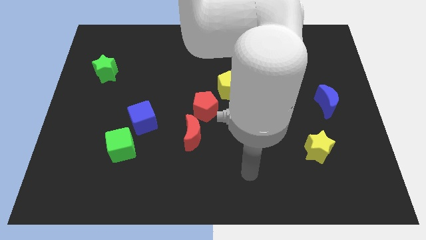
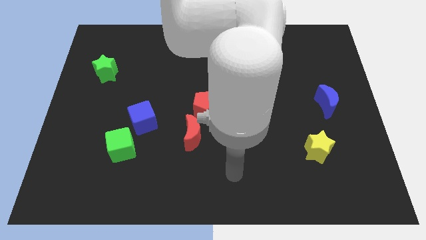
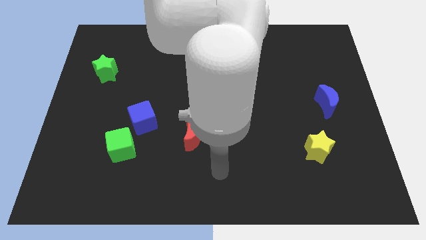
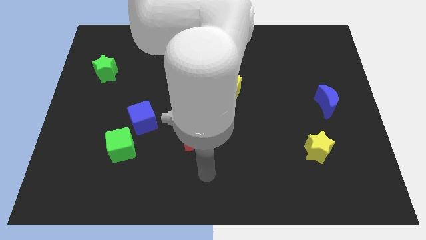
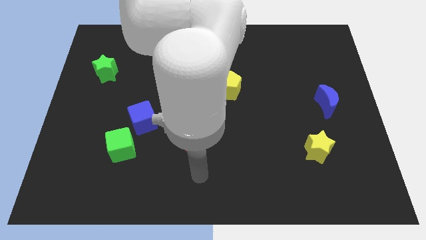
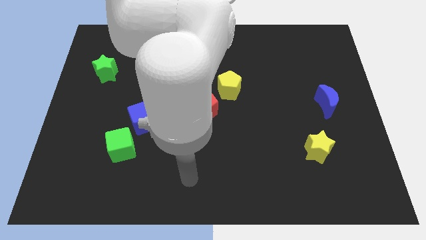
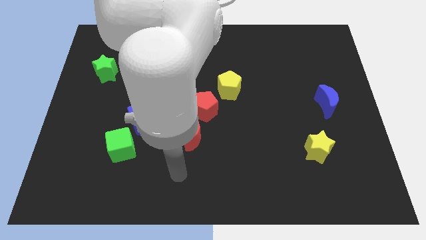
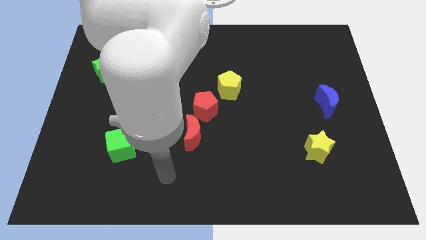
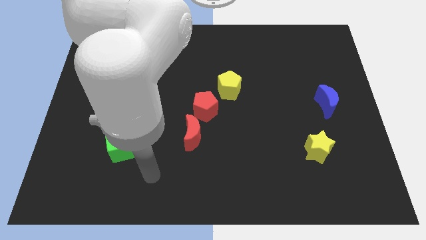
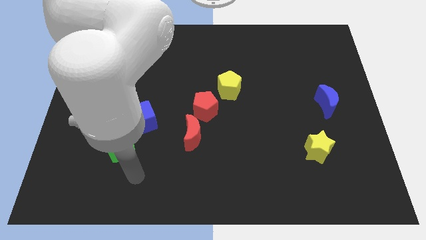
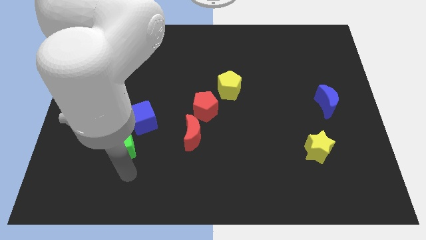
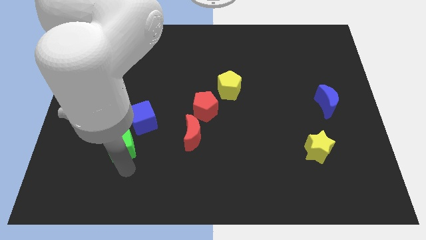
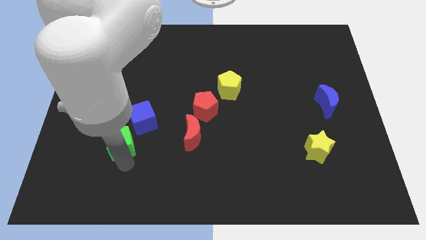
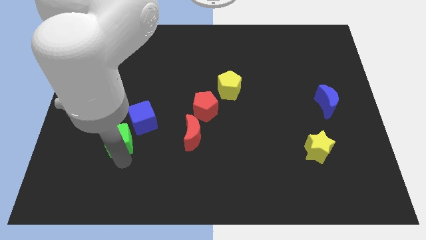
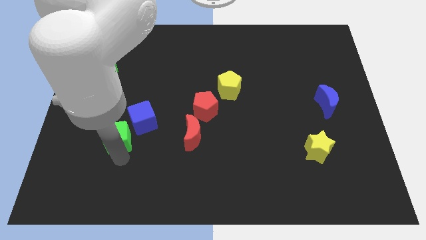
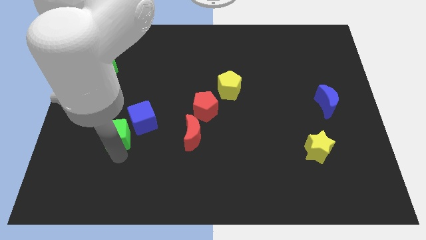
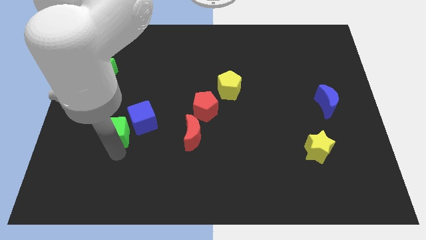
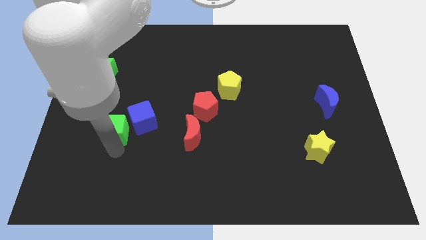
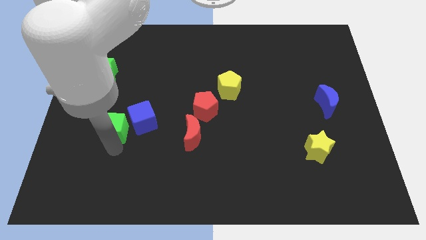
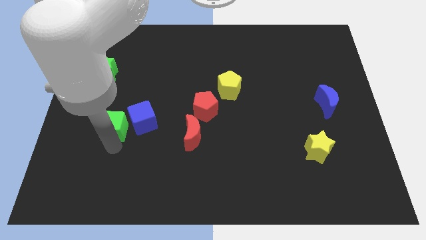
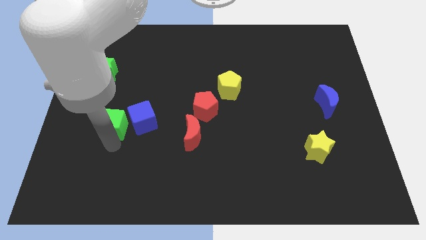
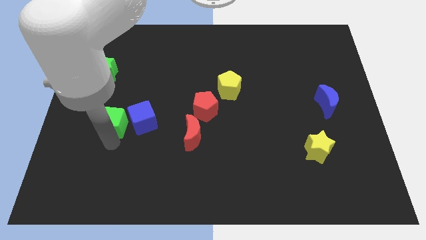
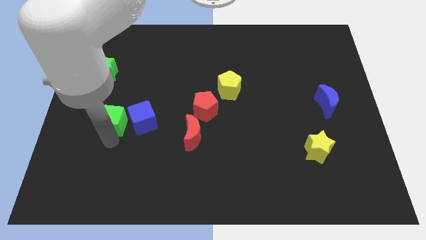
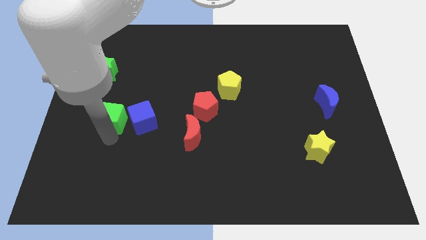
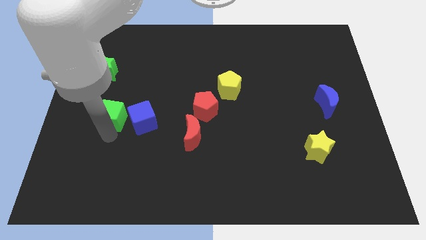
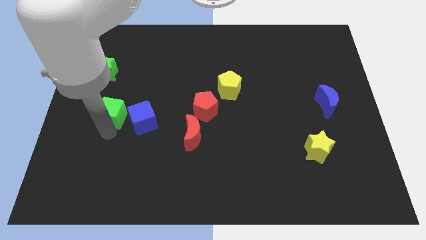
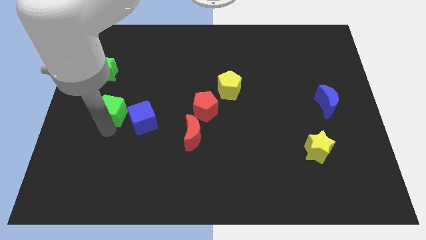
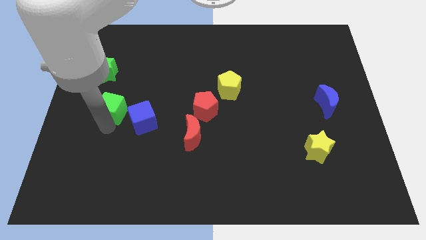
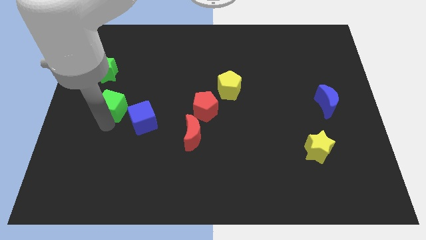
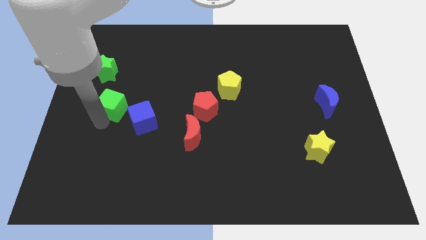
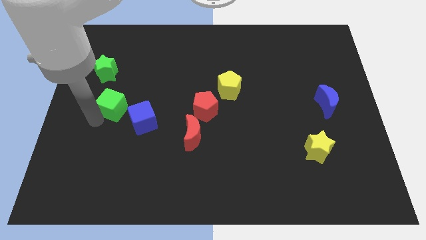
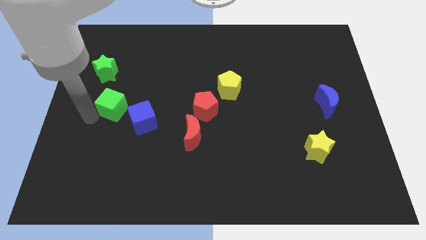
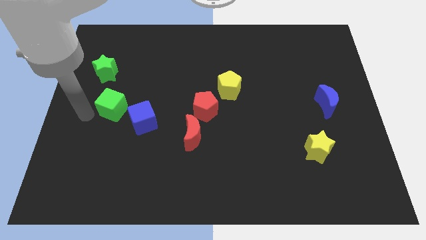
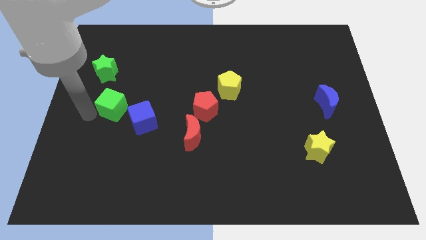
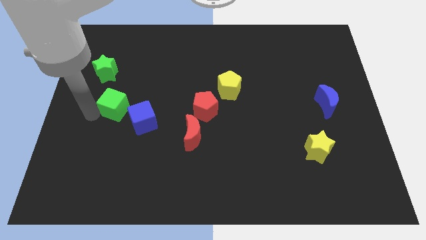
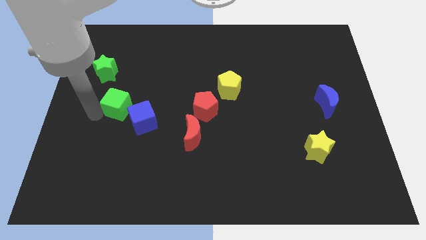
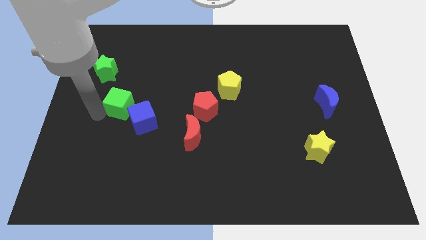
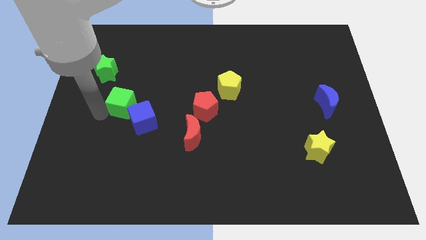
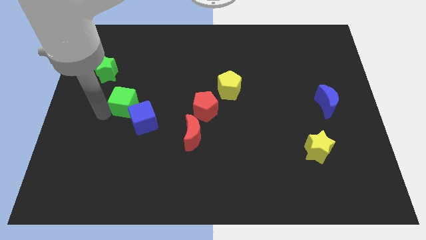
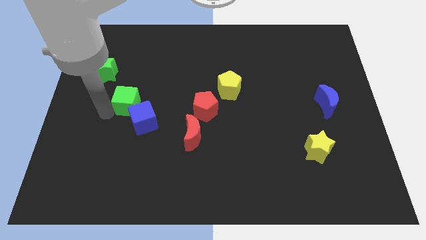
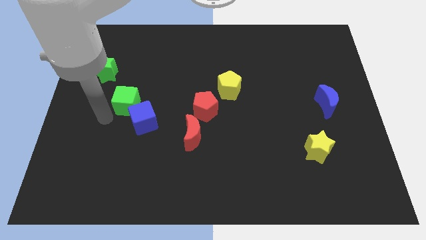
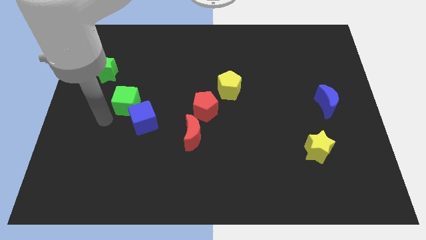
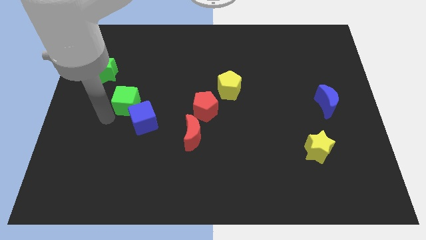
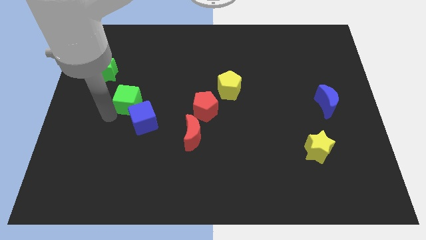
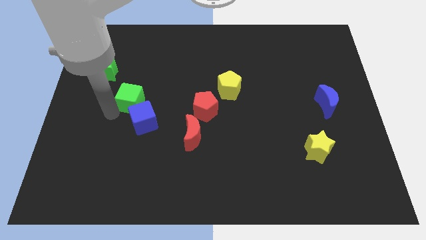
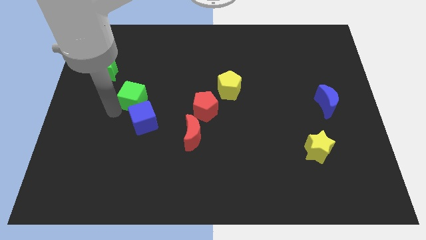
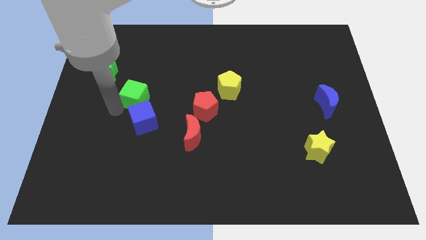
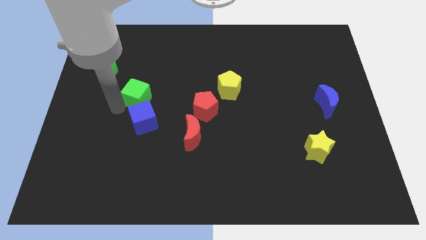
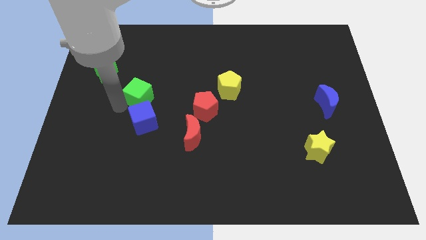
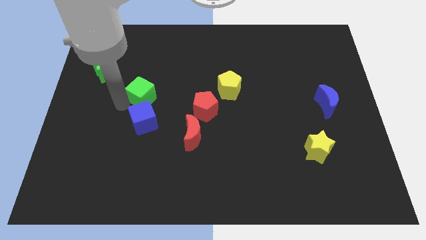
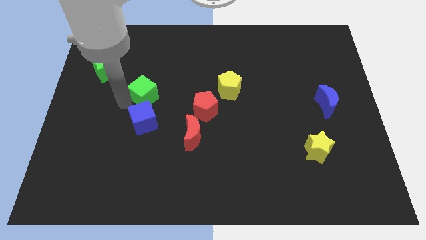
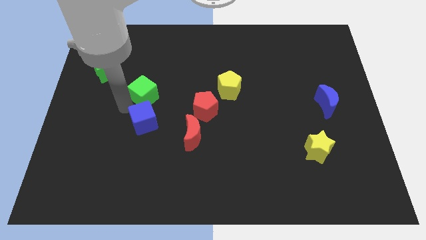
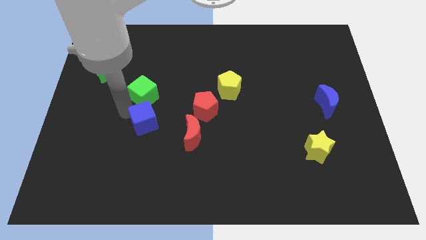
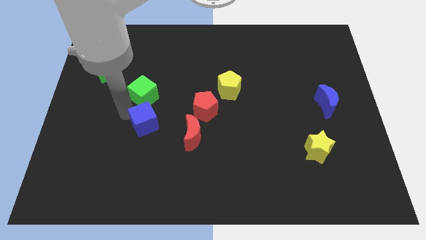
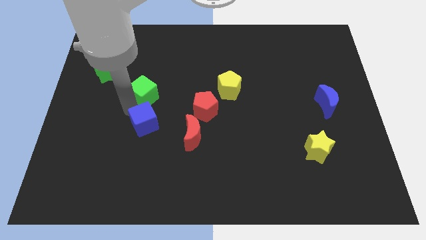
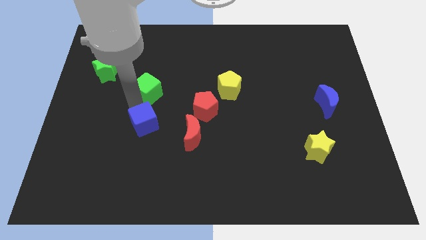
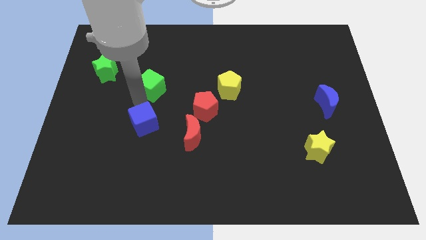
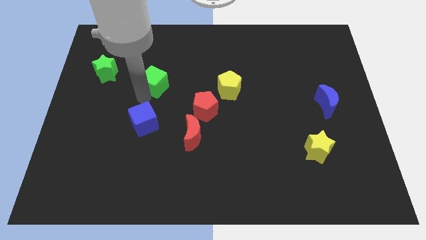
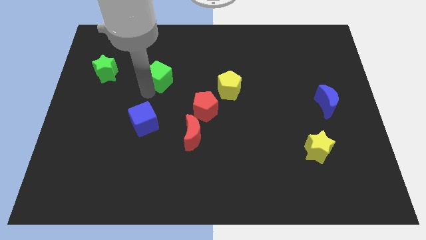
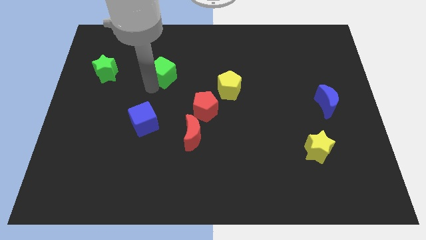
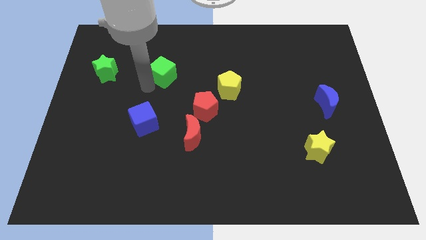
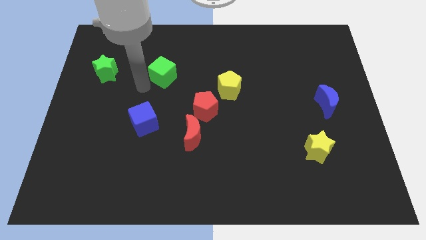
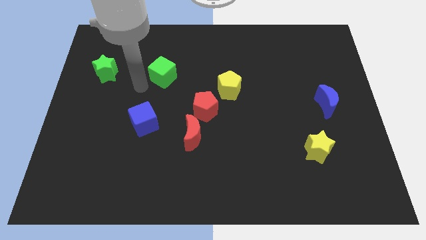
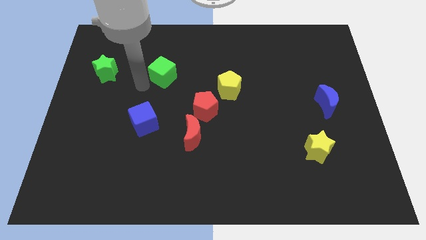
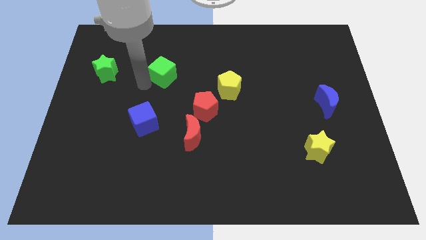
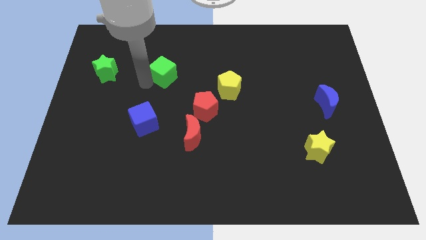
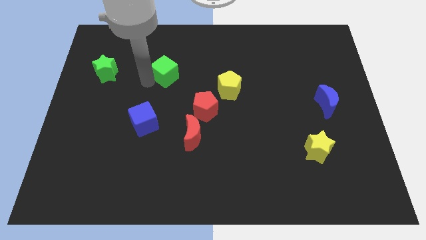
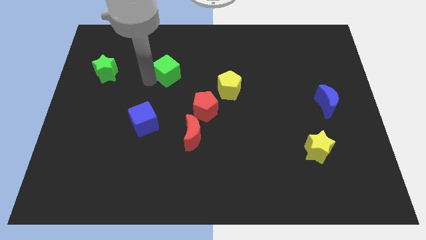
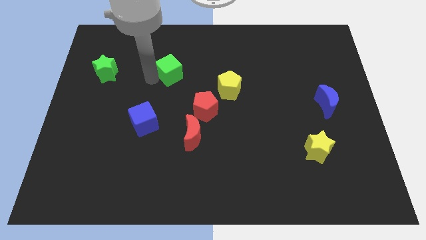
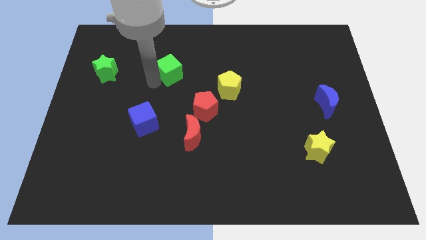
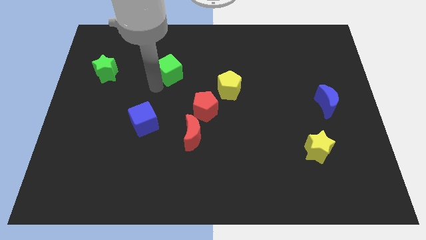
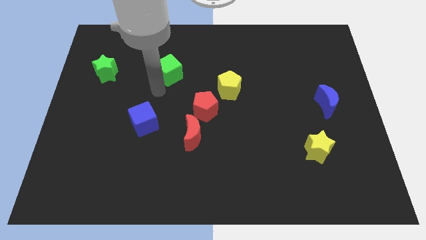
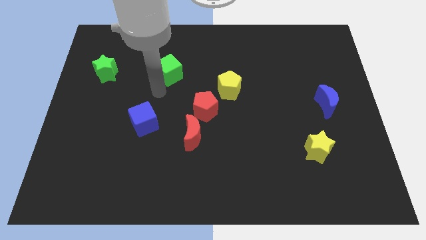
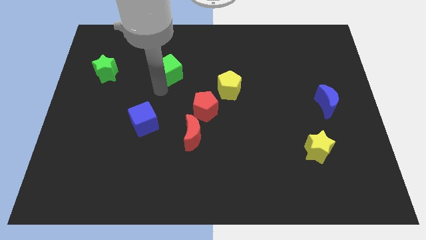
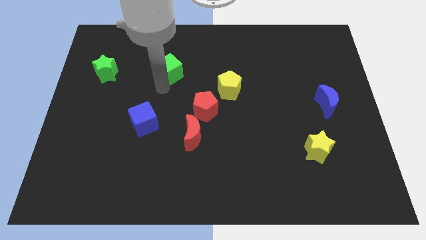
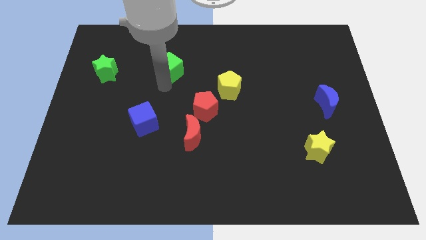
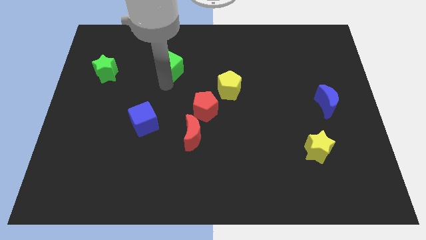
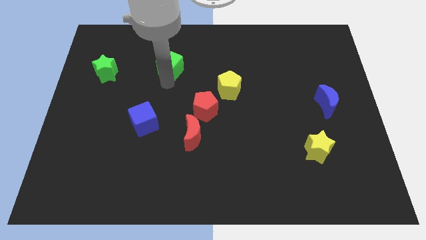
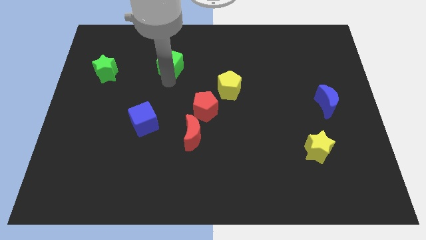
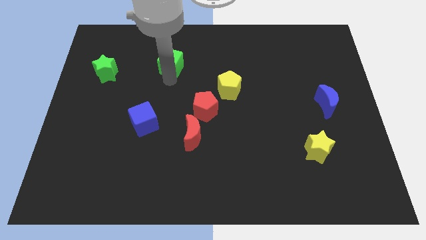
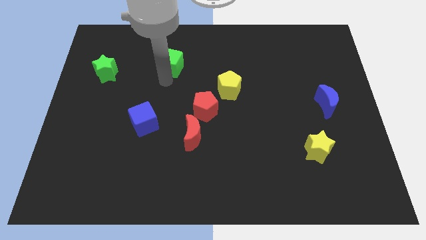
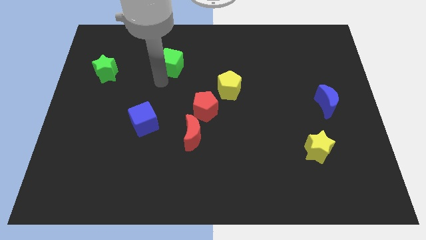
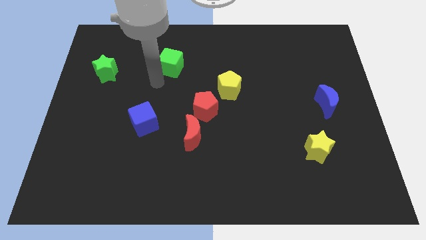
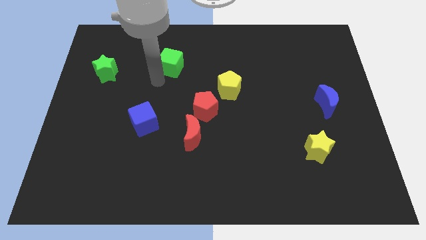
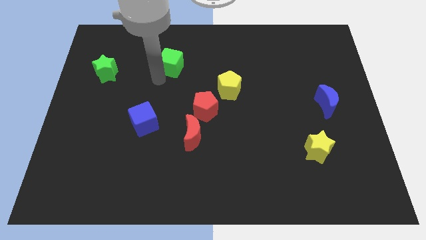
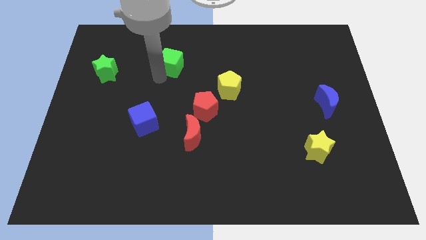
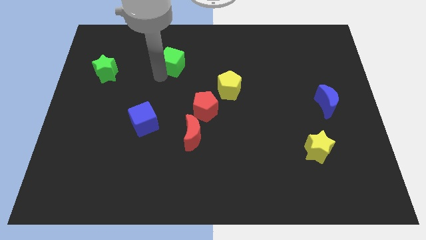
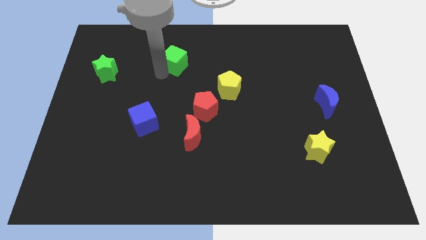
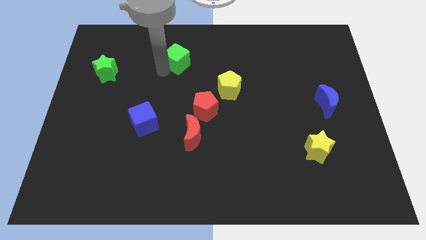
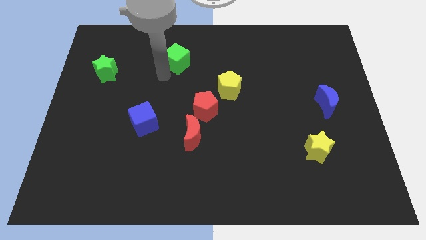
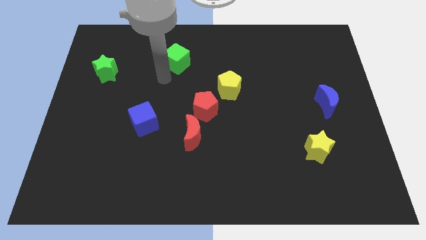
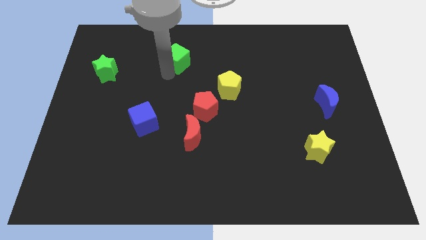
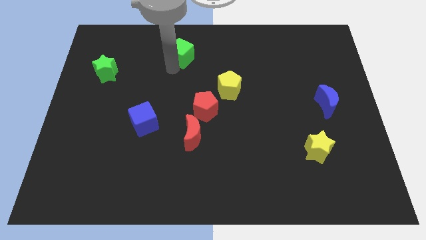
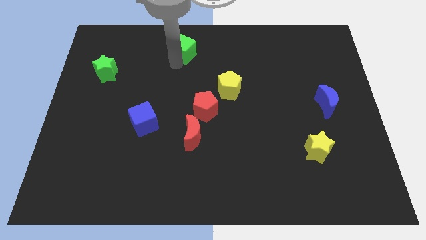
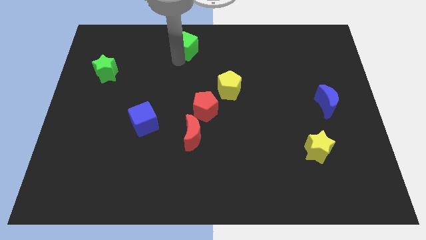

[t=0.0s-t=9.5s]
put the green cube to the top side
